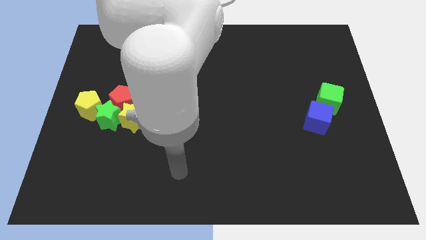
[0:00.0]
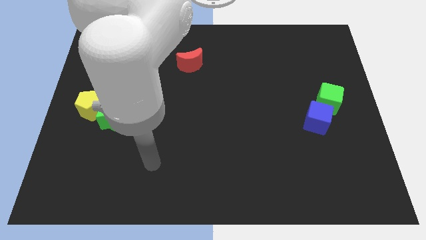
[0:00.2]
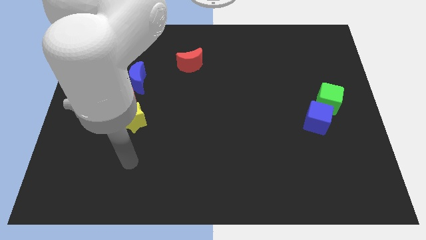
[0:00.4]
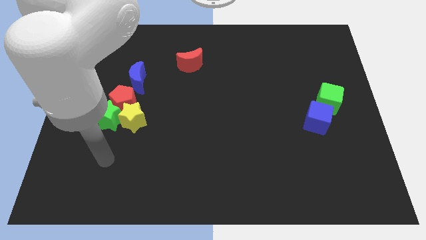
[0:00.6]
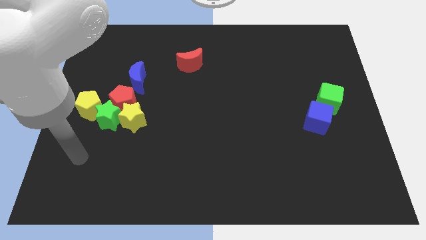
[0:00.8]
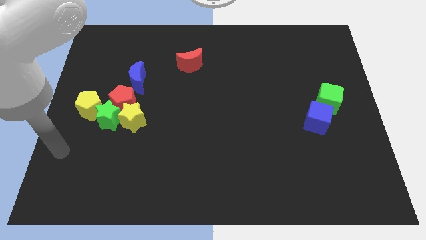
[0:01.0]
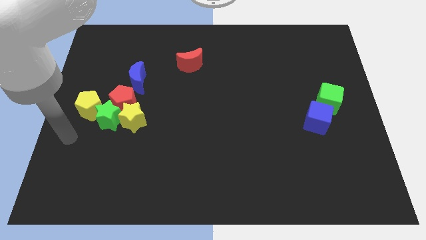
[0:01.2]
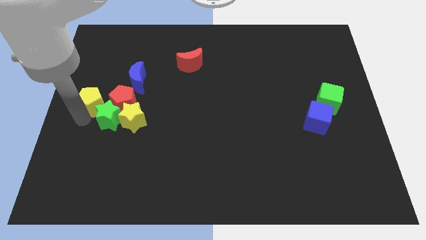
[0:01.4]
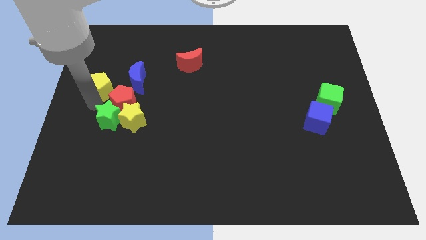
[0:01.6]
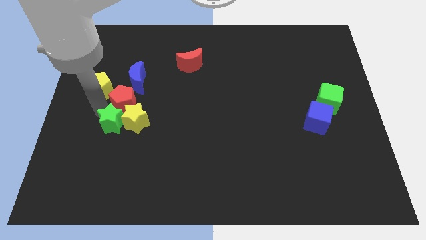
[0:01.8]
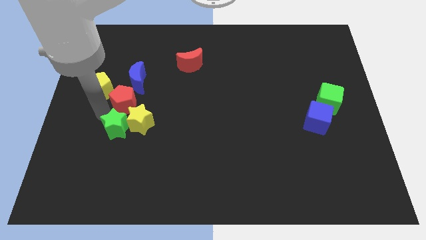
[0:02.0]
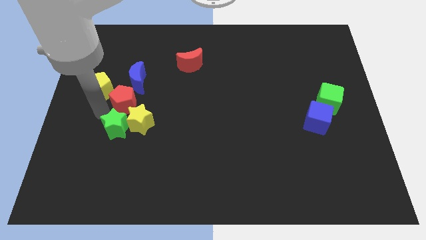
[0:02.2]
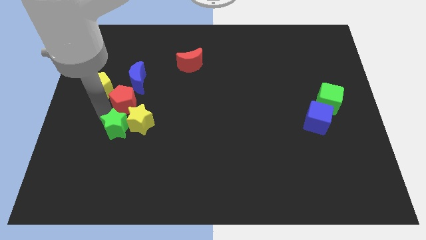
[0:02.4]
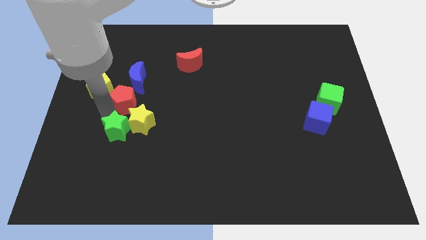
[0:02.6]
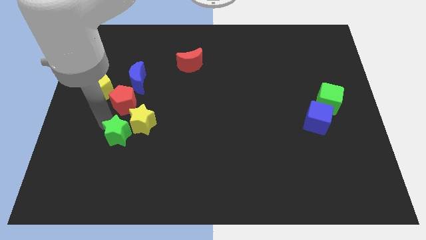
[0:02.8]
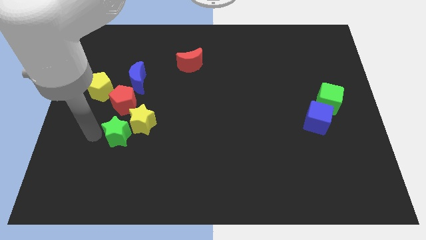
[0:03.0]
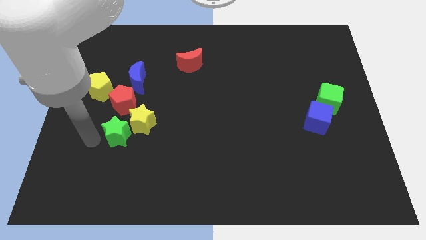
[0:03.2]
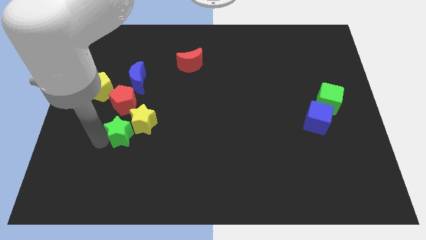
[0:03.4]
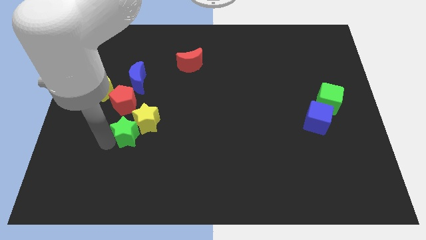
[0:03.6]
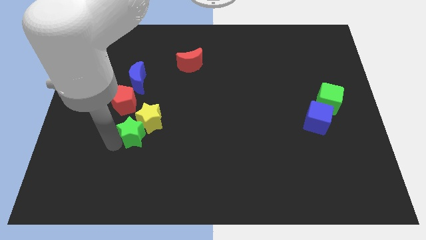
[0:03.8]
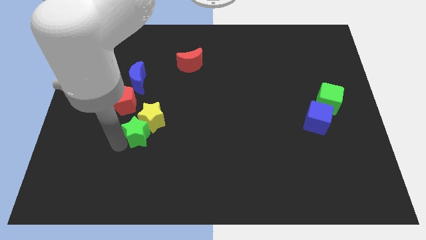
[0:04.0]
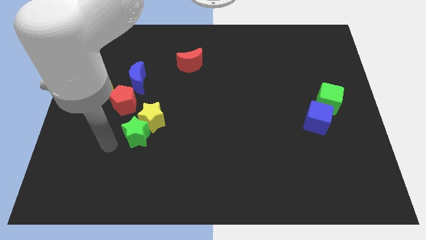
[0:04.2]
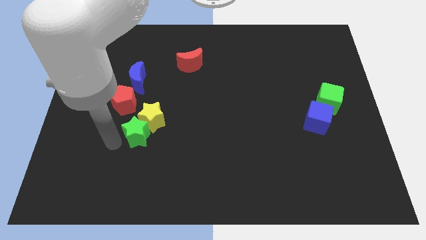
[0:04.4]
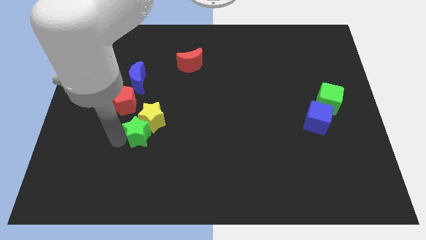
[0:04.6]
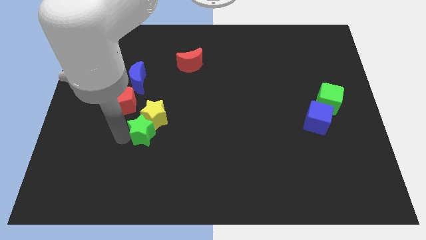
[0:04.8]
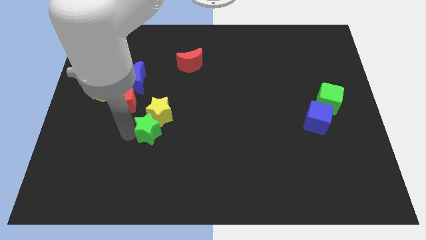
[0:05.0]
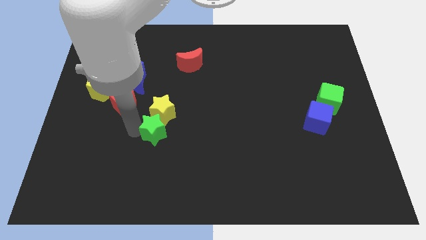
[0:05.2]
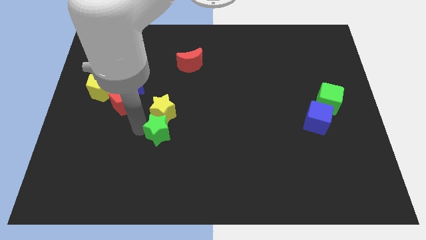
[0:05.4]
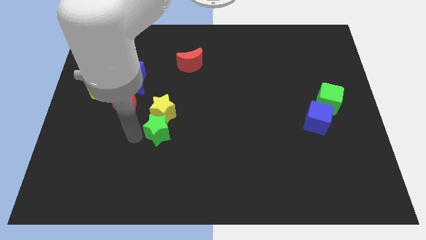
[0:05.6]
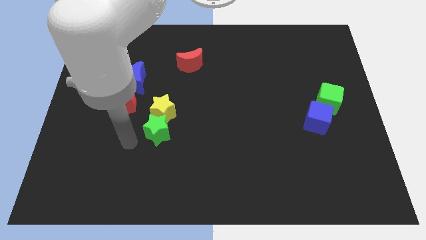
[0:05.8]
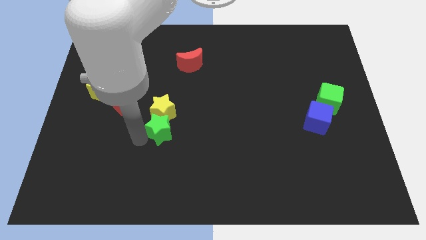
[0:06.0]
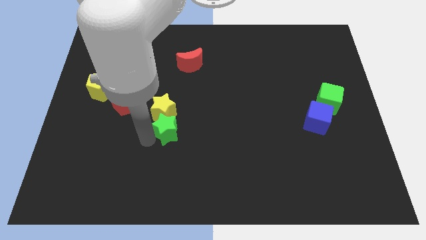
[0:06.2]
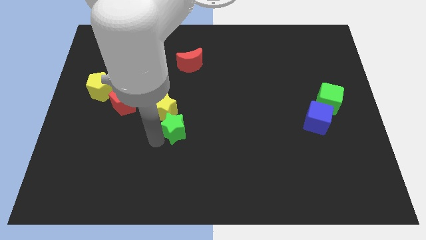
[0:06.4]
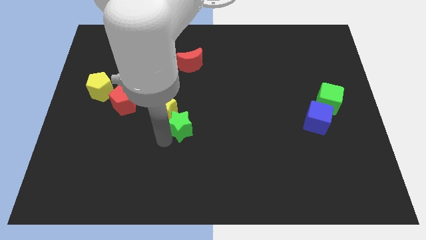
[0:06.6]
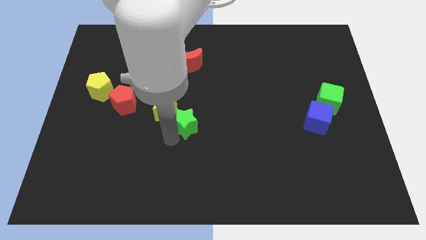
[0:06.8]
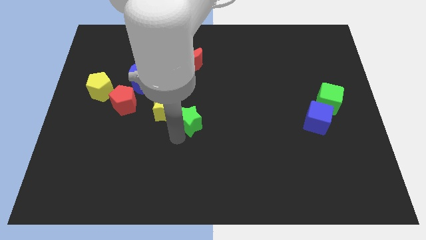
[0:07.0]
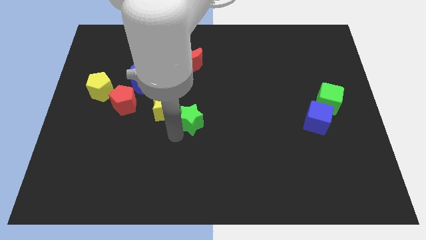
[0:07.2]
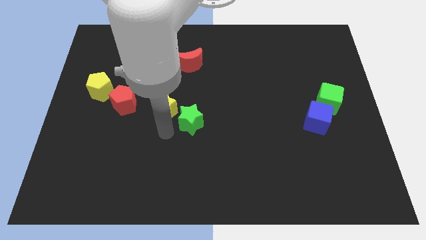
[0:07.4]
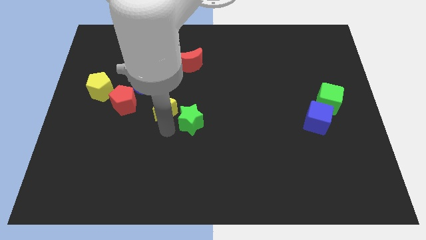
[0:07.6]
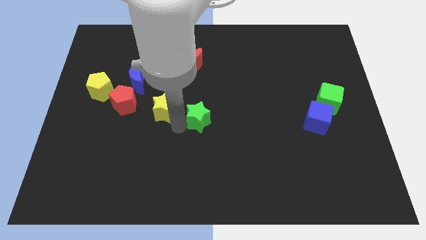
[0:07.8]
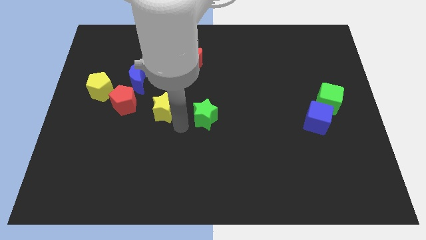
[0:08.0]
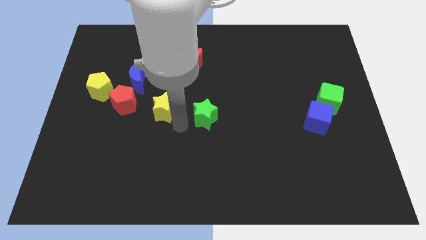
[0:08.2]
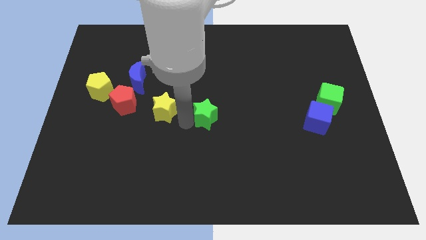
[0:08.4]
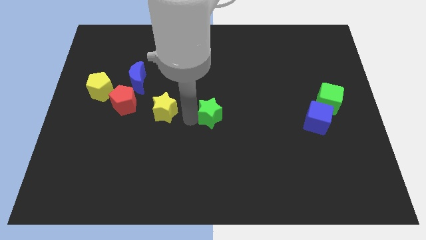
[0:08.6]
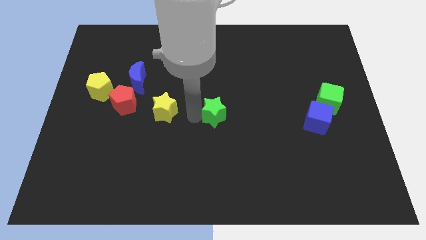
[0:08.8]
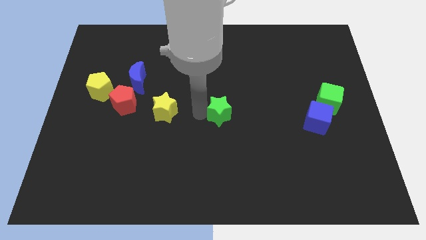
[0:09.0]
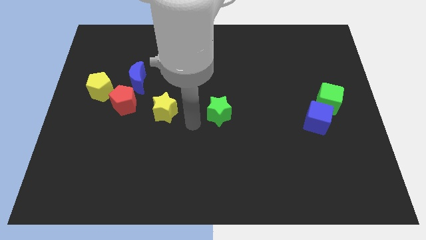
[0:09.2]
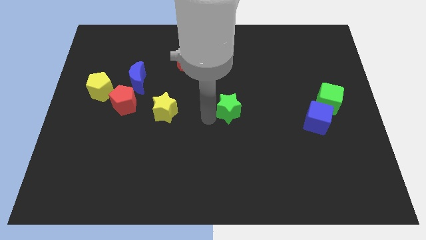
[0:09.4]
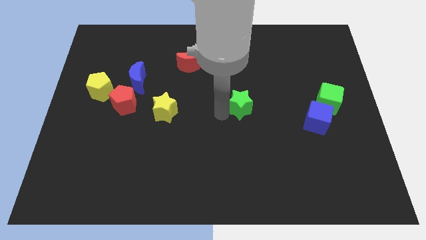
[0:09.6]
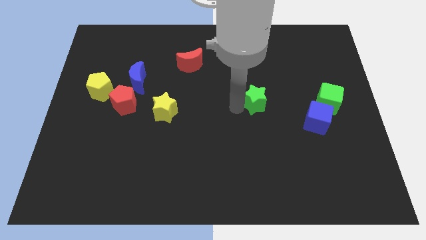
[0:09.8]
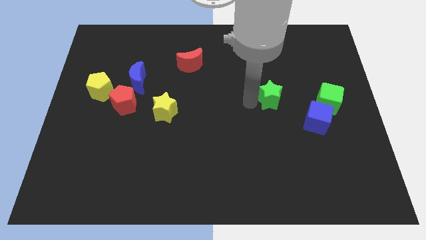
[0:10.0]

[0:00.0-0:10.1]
put the green star diagonally up and to the left of the blue cube

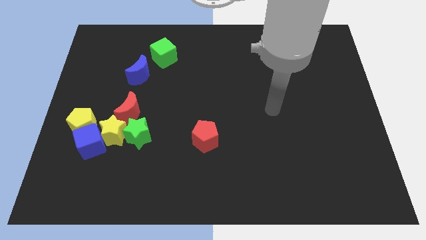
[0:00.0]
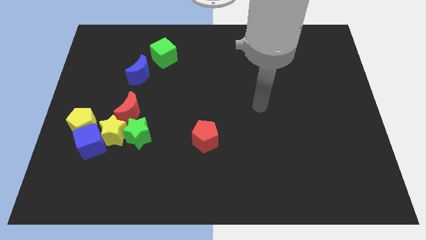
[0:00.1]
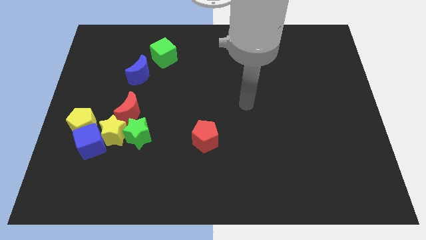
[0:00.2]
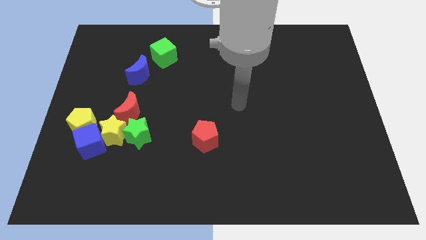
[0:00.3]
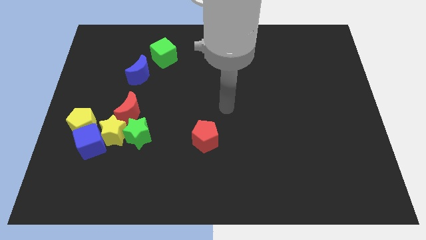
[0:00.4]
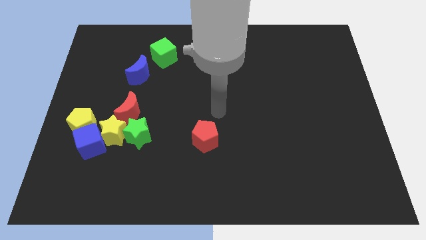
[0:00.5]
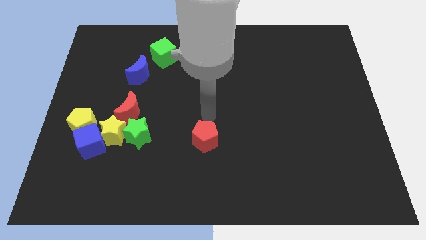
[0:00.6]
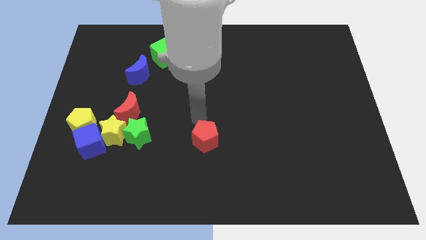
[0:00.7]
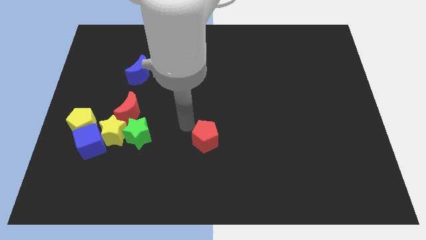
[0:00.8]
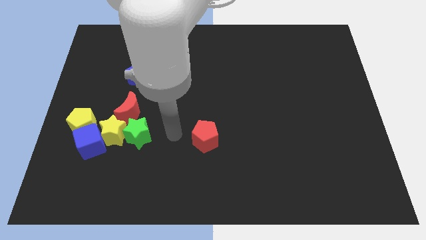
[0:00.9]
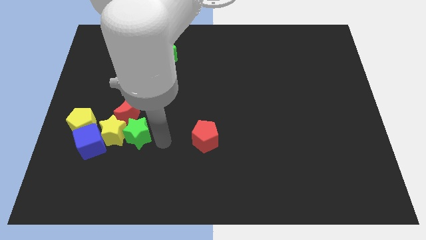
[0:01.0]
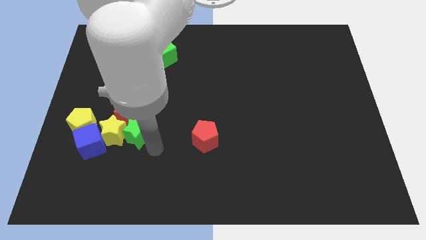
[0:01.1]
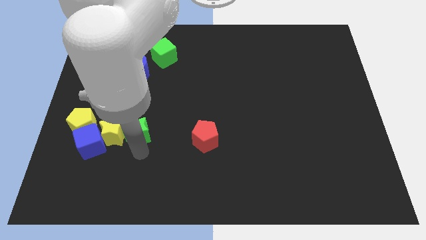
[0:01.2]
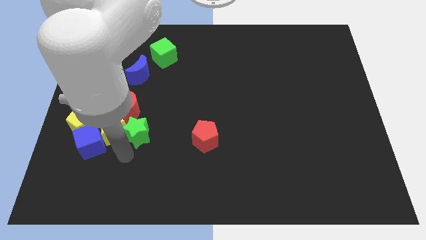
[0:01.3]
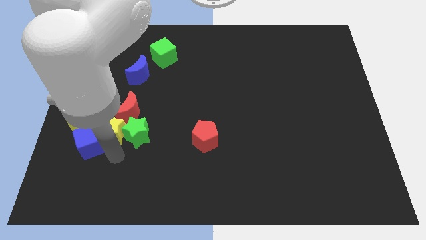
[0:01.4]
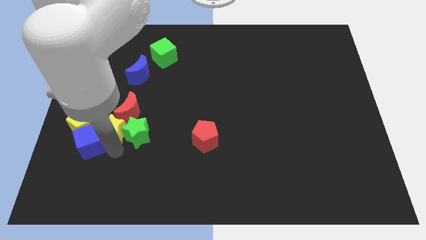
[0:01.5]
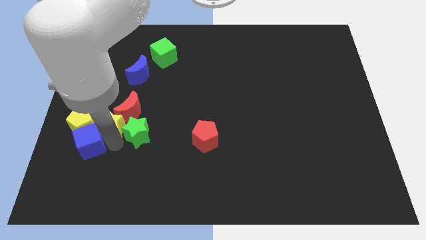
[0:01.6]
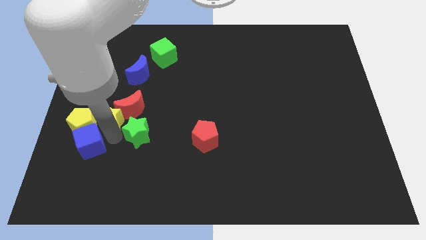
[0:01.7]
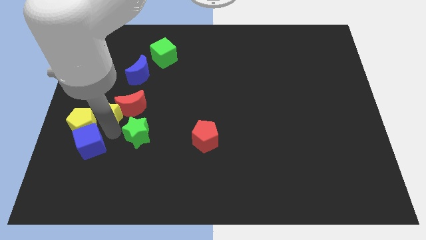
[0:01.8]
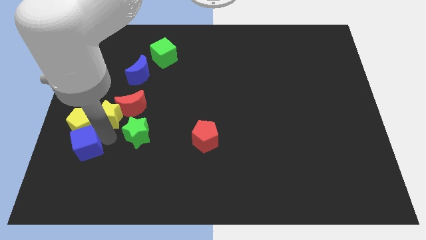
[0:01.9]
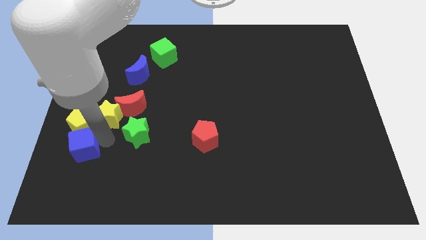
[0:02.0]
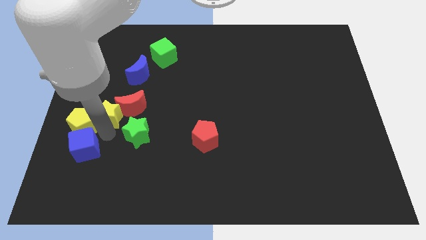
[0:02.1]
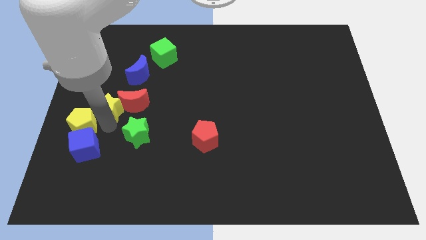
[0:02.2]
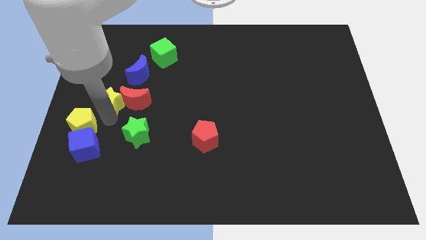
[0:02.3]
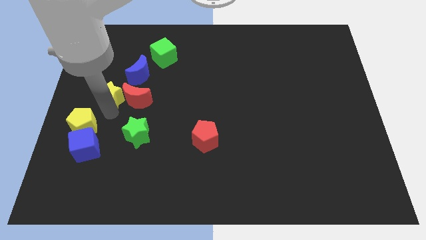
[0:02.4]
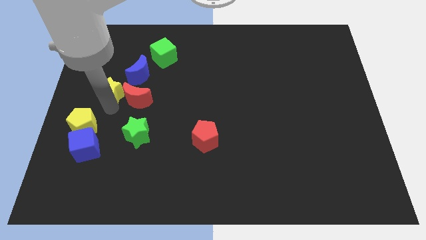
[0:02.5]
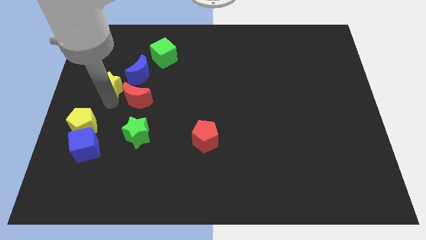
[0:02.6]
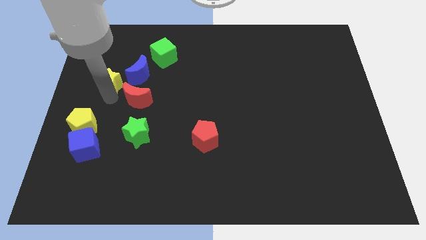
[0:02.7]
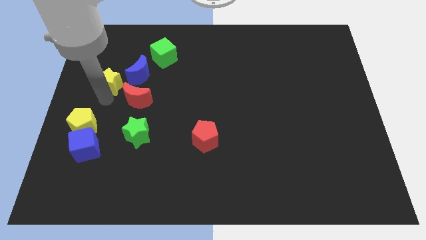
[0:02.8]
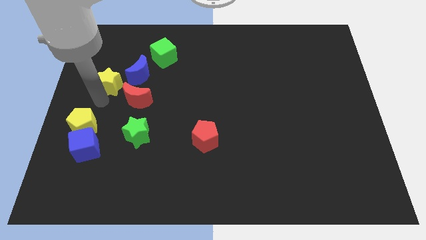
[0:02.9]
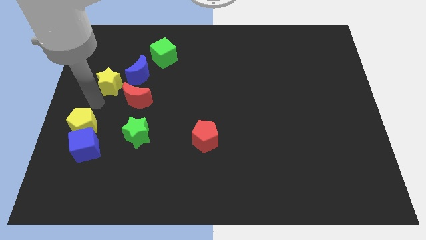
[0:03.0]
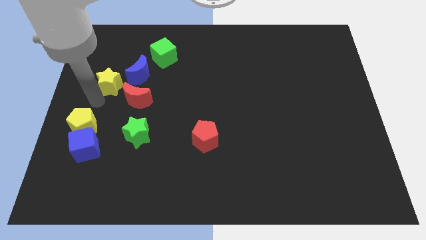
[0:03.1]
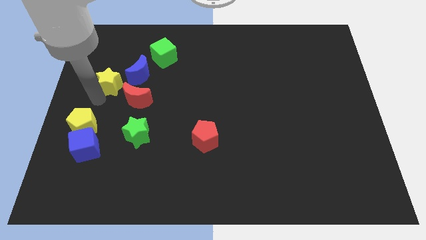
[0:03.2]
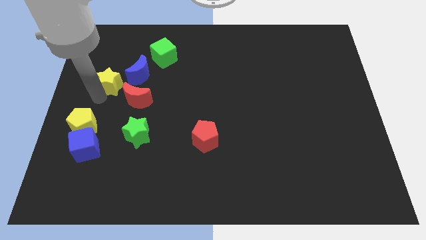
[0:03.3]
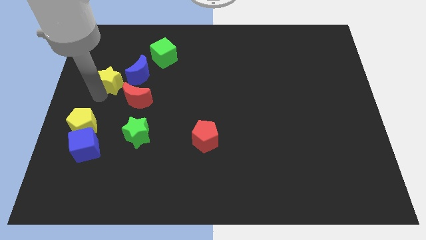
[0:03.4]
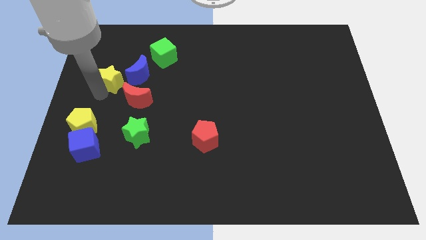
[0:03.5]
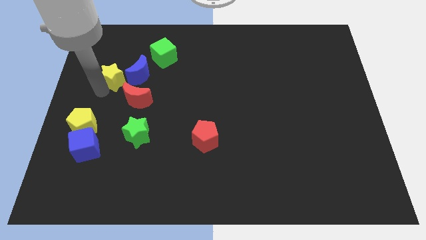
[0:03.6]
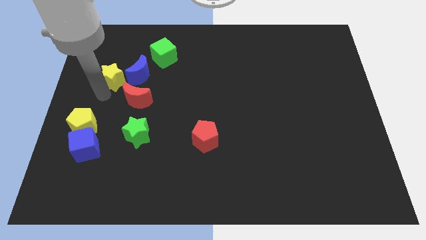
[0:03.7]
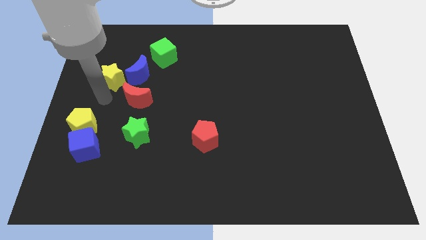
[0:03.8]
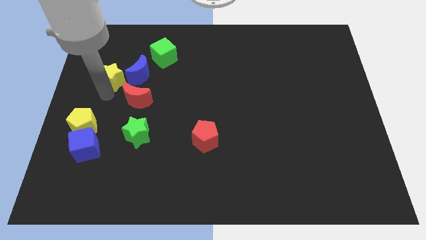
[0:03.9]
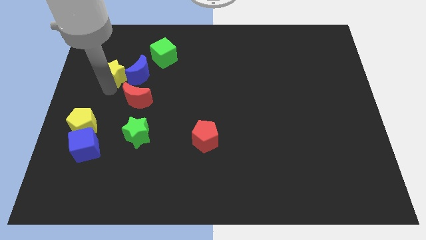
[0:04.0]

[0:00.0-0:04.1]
move the yellow star diagonally up and to the left of the blue moon
